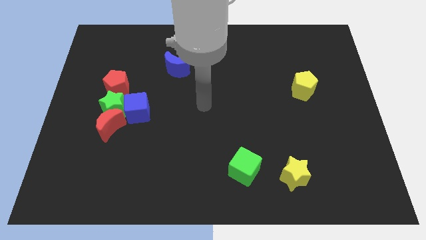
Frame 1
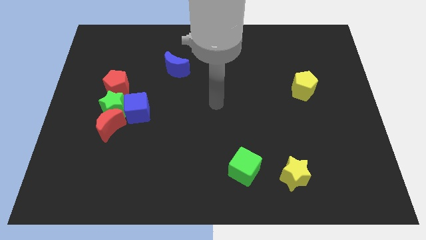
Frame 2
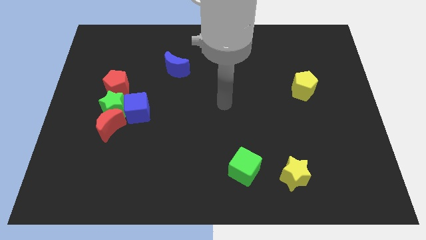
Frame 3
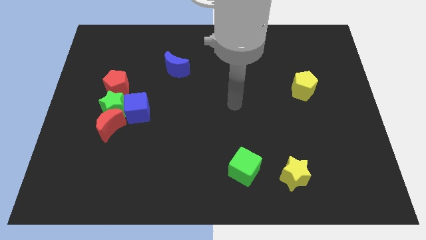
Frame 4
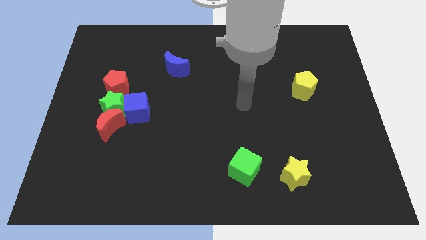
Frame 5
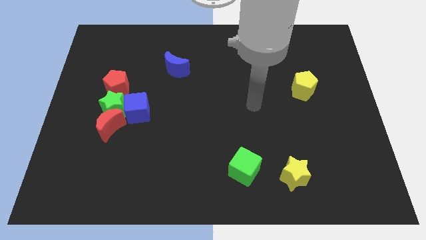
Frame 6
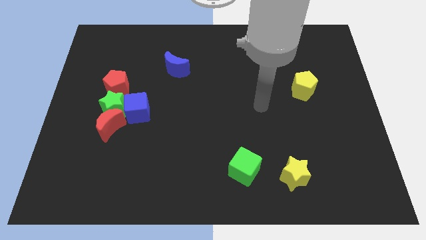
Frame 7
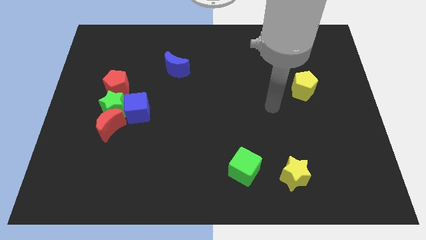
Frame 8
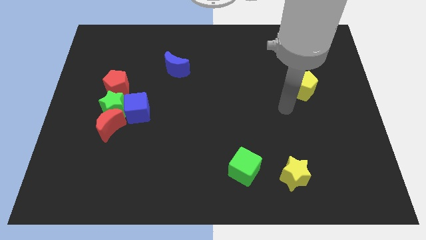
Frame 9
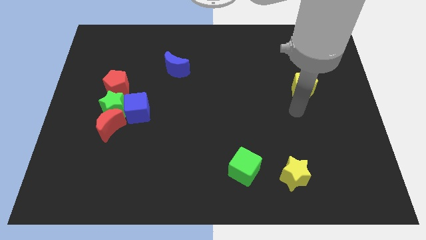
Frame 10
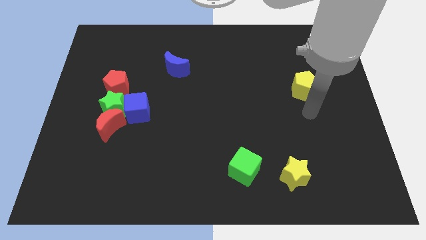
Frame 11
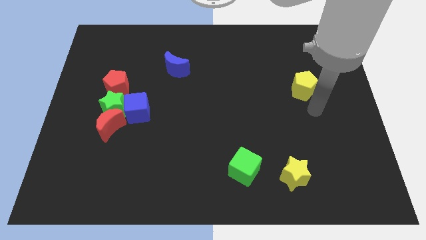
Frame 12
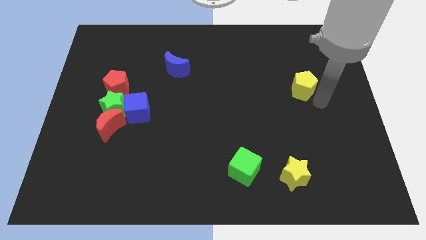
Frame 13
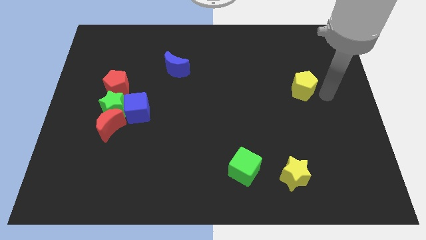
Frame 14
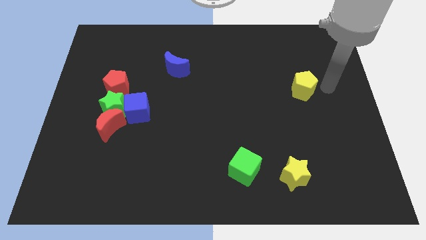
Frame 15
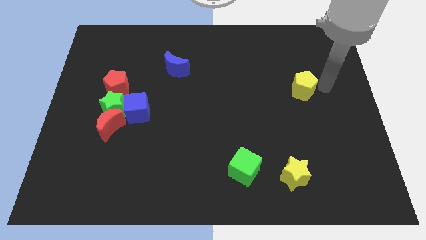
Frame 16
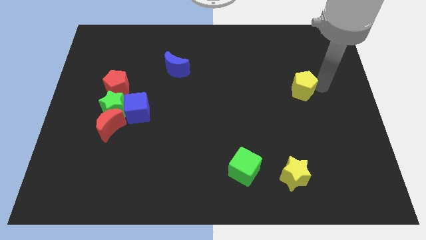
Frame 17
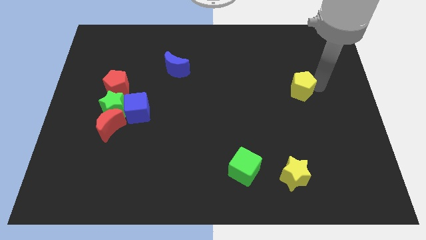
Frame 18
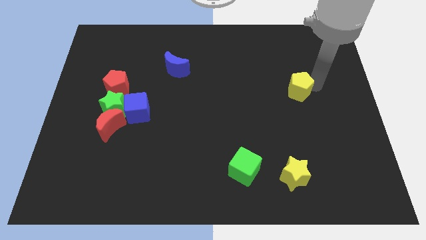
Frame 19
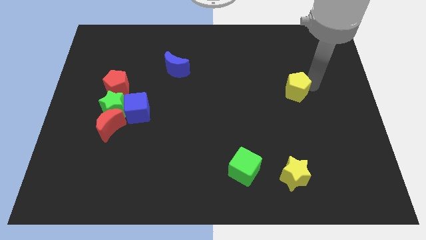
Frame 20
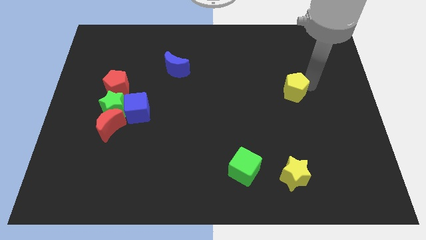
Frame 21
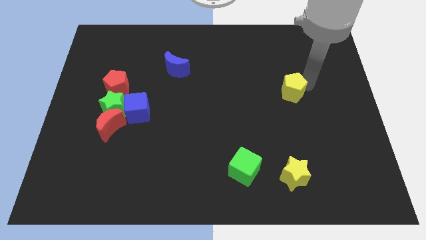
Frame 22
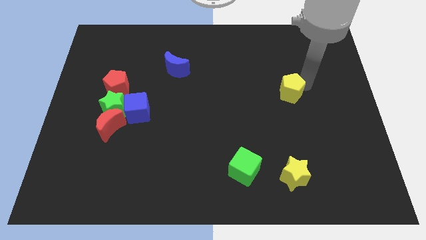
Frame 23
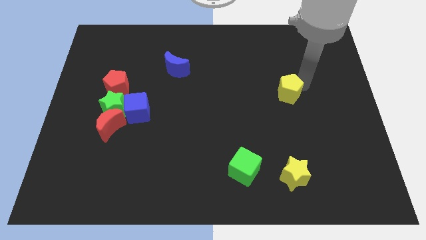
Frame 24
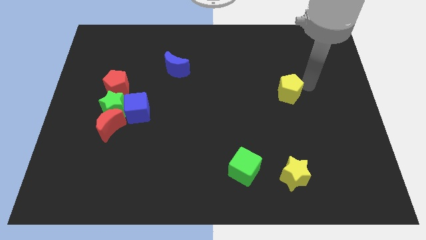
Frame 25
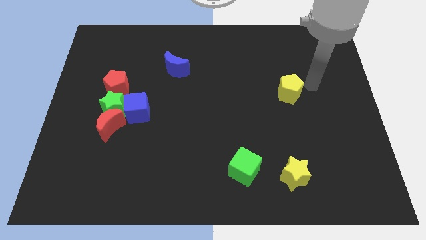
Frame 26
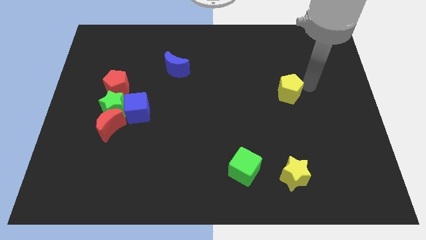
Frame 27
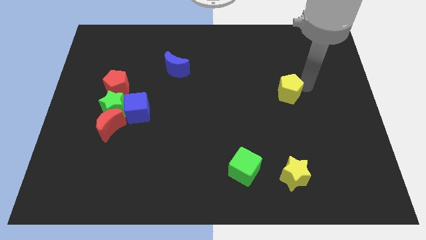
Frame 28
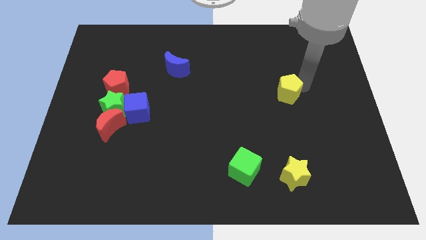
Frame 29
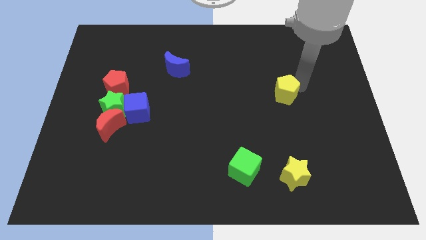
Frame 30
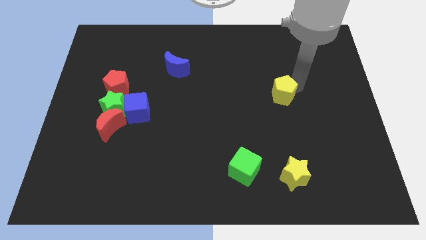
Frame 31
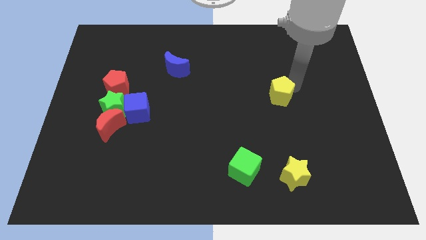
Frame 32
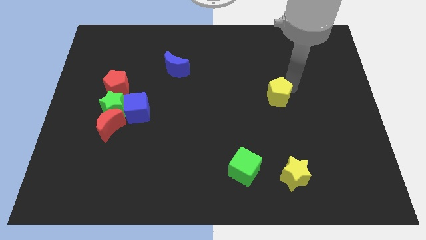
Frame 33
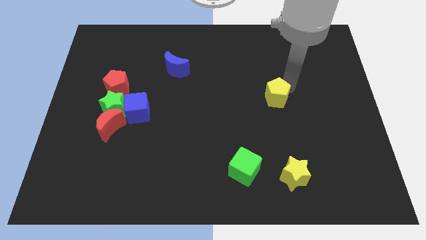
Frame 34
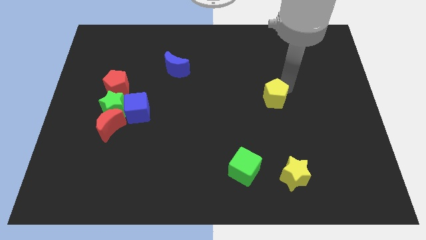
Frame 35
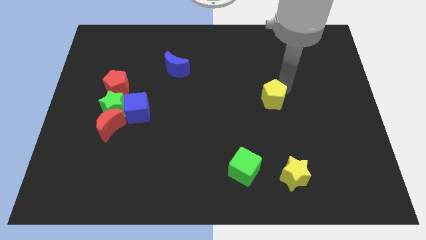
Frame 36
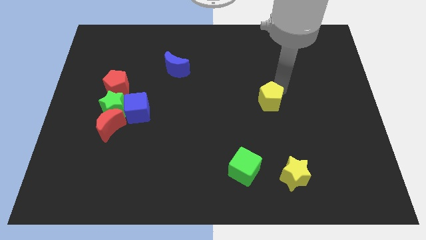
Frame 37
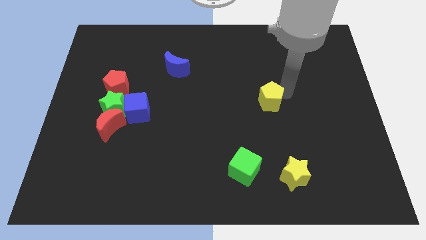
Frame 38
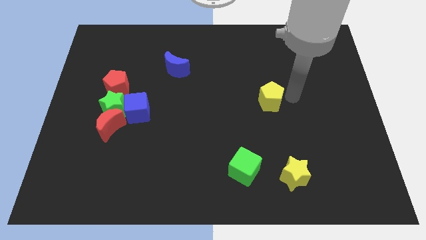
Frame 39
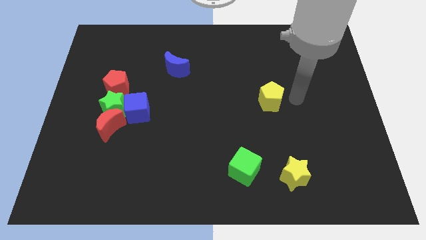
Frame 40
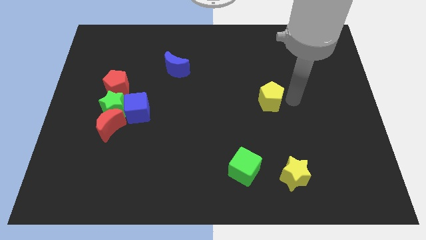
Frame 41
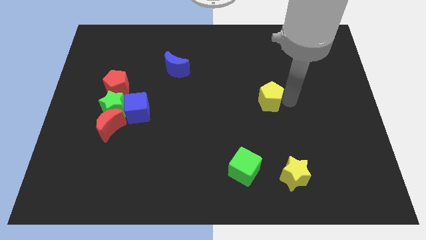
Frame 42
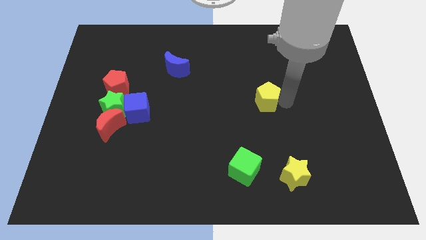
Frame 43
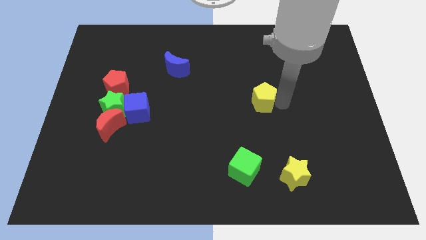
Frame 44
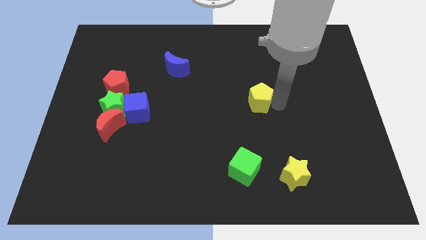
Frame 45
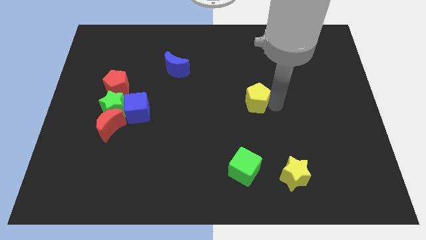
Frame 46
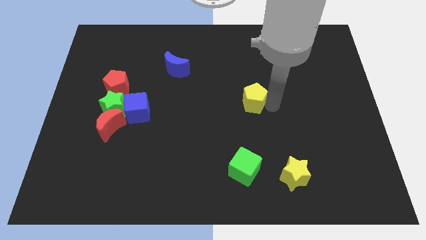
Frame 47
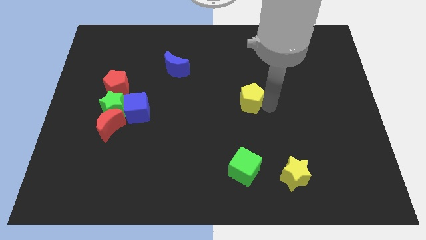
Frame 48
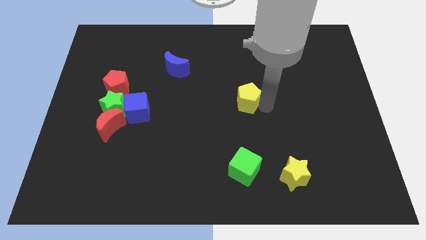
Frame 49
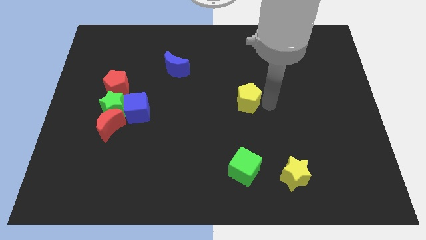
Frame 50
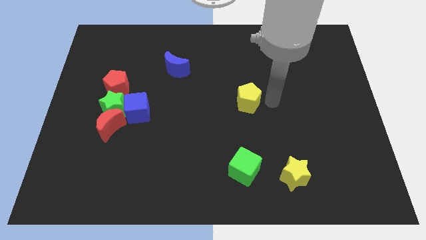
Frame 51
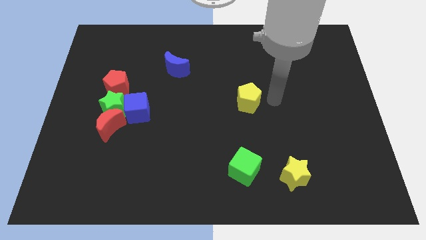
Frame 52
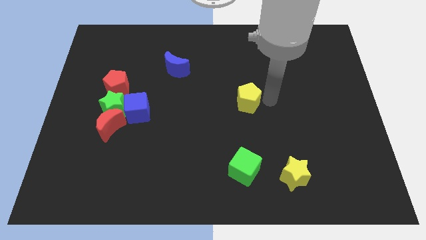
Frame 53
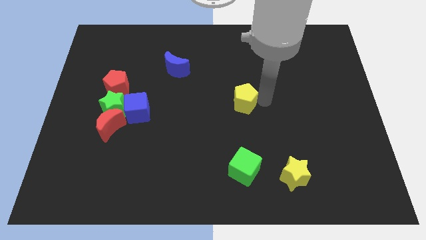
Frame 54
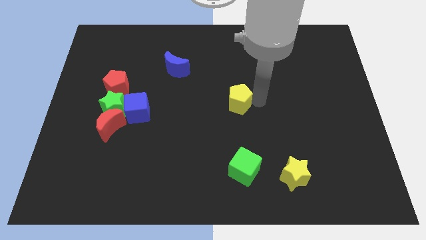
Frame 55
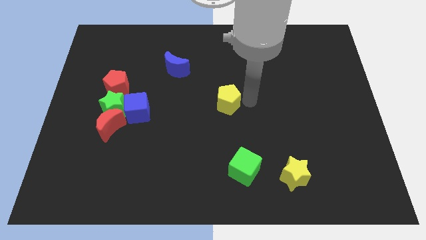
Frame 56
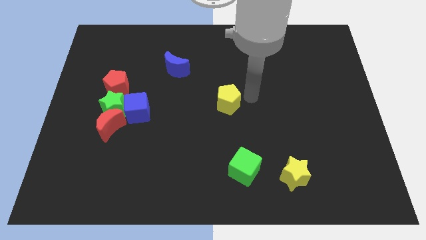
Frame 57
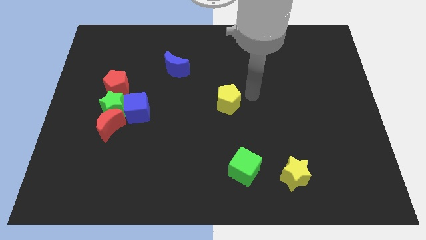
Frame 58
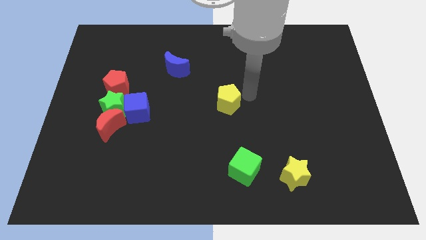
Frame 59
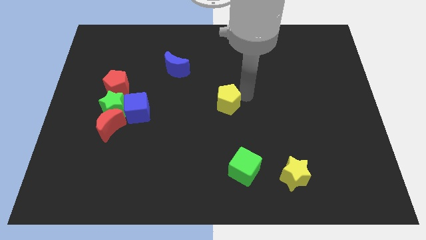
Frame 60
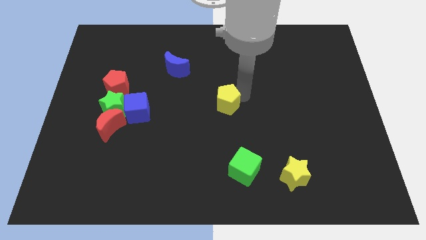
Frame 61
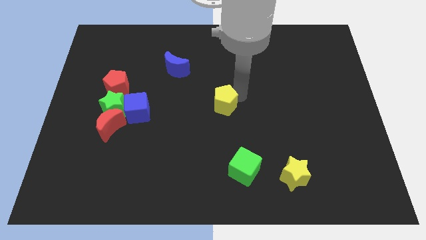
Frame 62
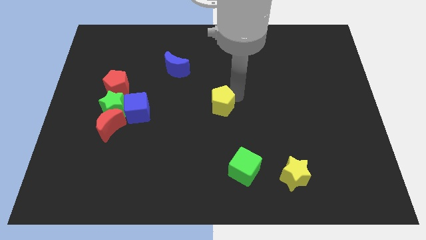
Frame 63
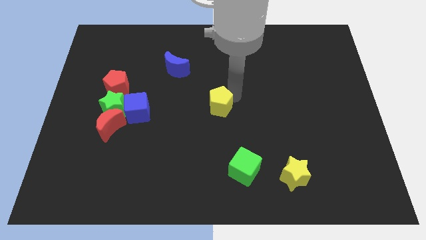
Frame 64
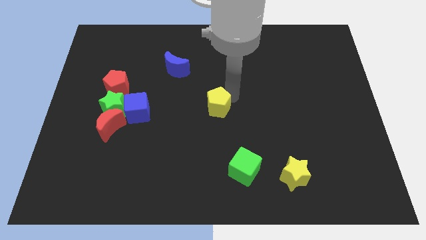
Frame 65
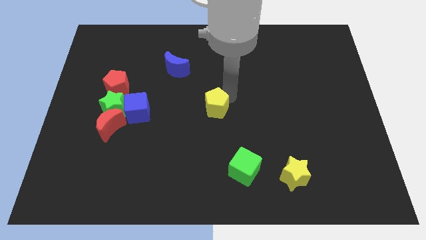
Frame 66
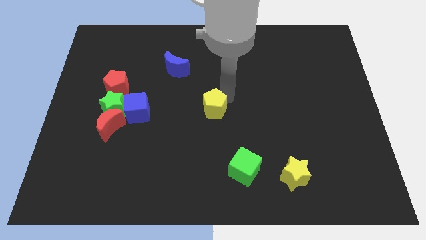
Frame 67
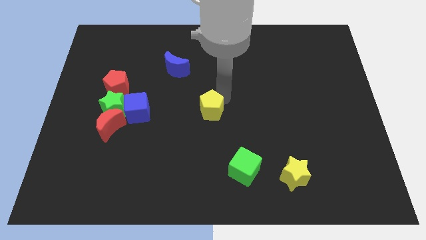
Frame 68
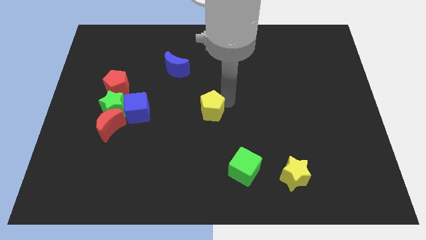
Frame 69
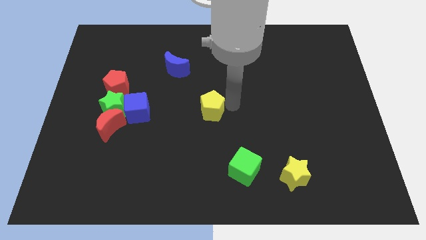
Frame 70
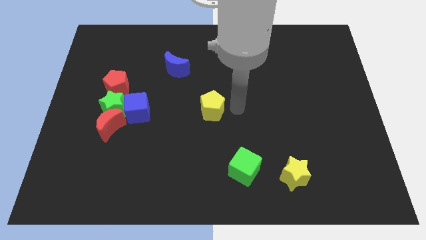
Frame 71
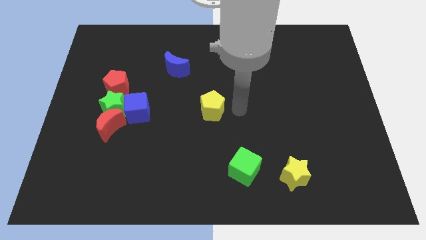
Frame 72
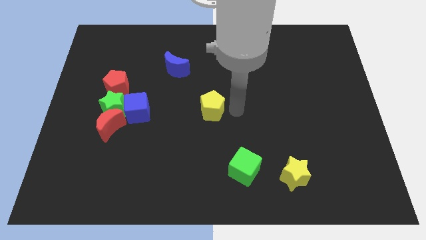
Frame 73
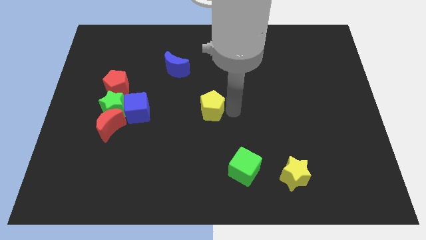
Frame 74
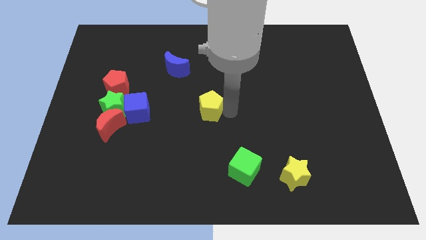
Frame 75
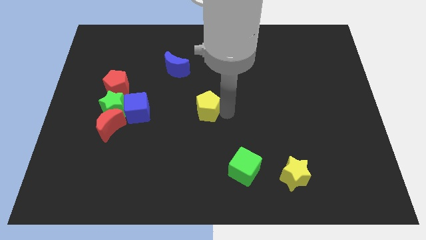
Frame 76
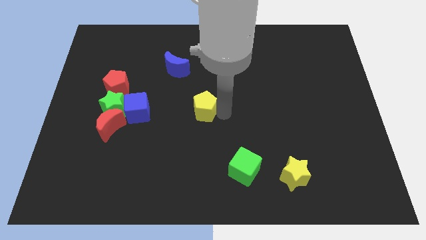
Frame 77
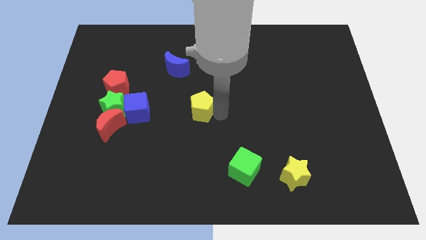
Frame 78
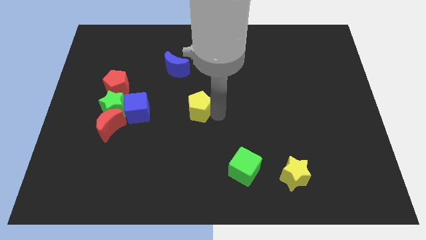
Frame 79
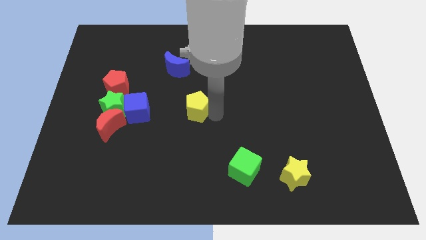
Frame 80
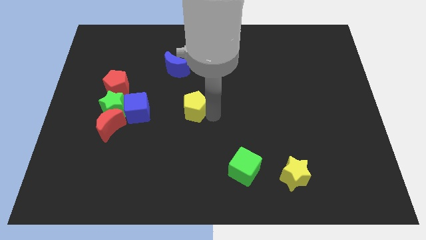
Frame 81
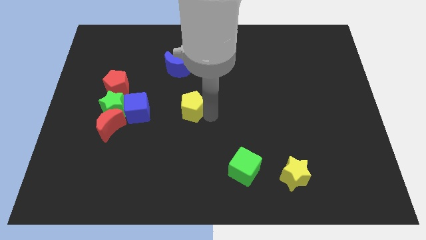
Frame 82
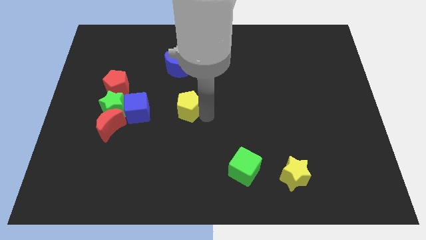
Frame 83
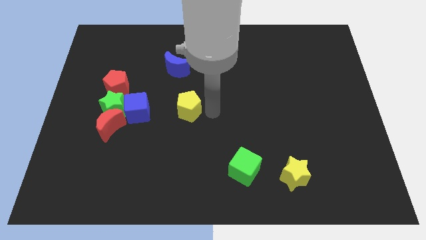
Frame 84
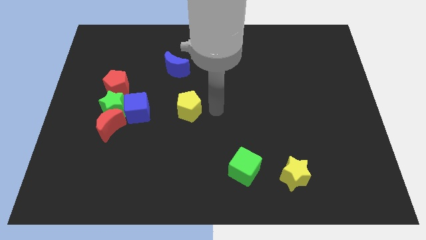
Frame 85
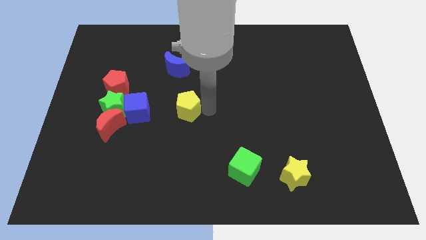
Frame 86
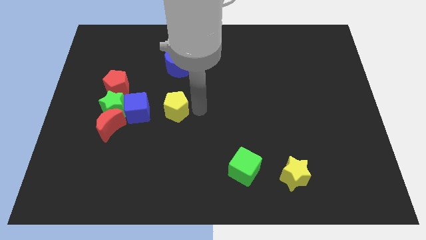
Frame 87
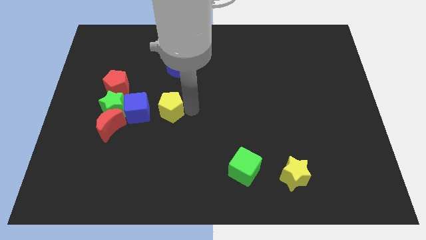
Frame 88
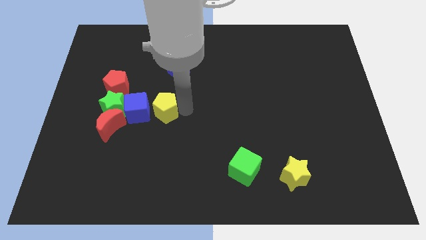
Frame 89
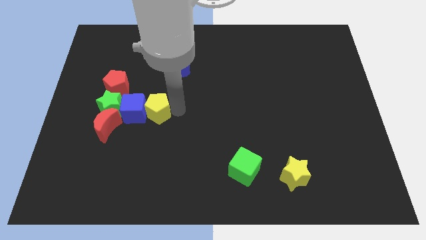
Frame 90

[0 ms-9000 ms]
slide the yellow pentagon towards the blue cube
